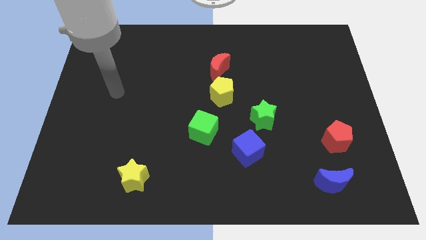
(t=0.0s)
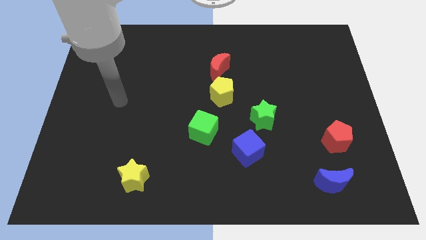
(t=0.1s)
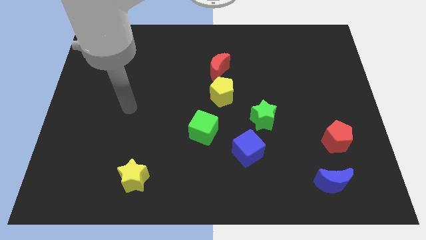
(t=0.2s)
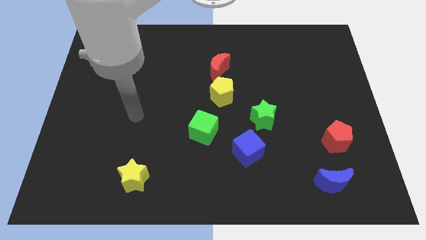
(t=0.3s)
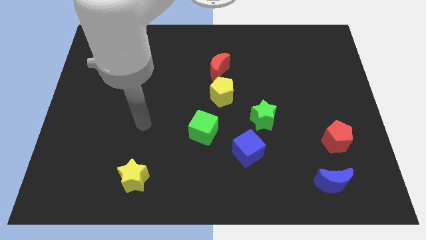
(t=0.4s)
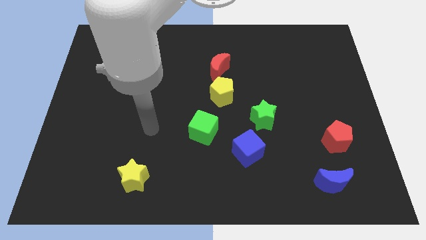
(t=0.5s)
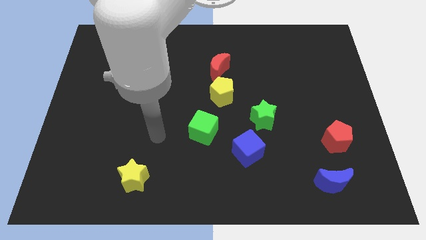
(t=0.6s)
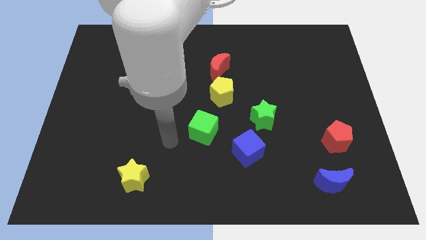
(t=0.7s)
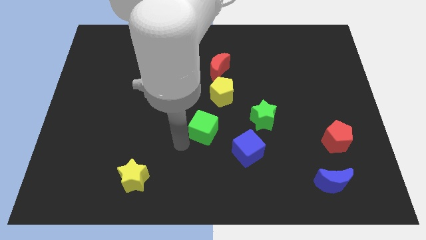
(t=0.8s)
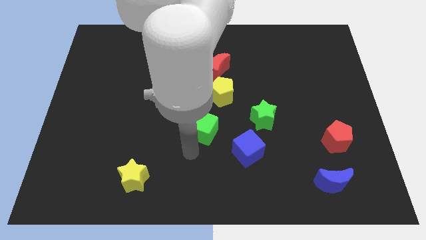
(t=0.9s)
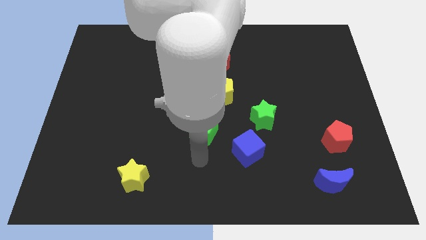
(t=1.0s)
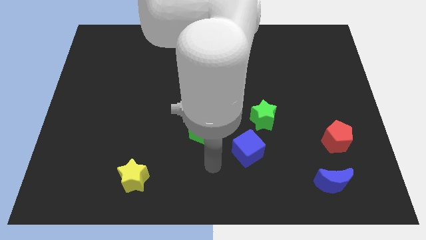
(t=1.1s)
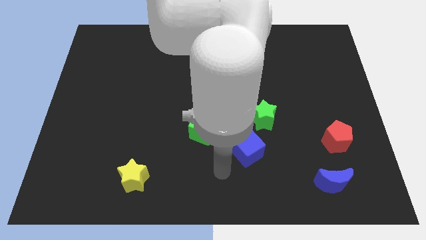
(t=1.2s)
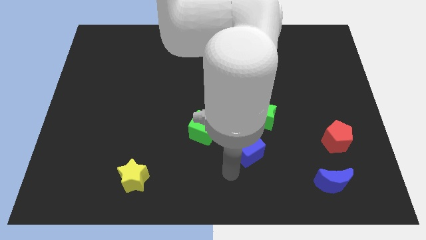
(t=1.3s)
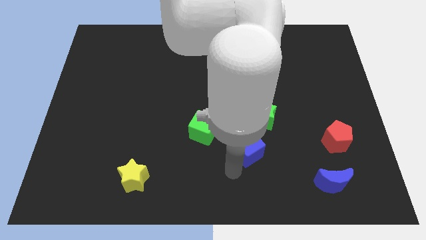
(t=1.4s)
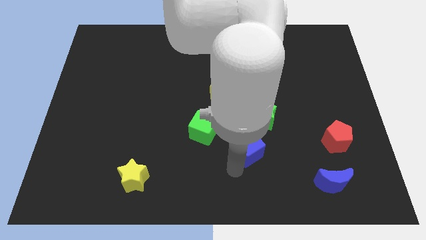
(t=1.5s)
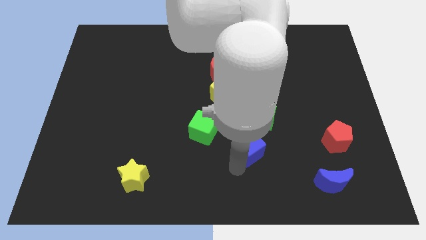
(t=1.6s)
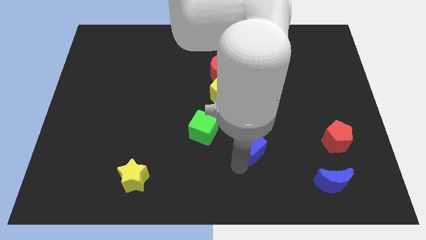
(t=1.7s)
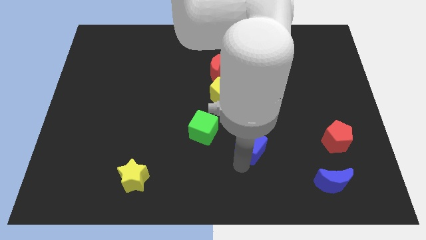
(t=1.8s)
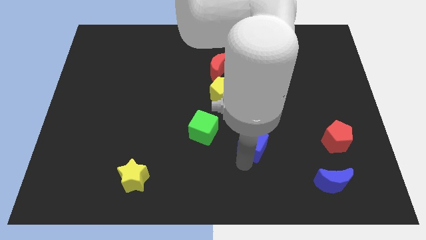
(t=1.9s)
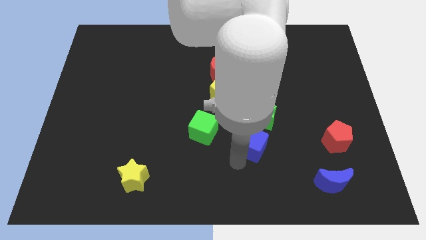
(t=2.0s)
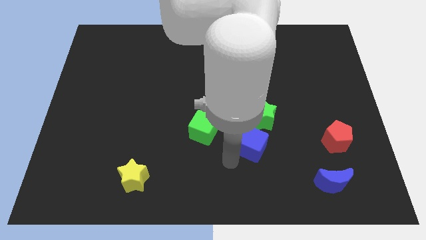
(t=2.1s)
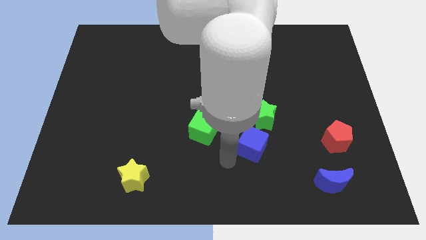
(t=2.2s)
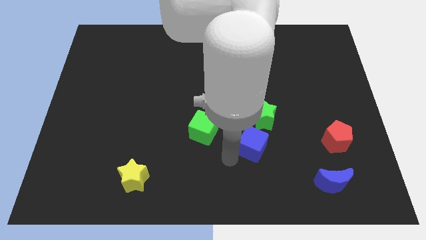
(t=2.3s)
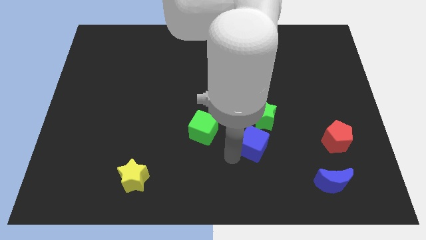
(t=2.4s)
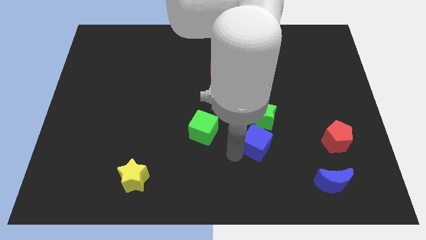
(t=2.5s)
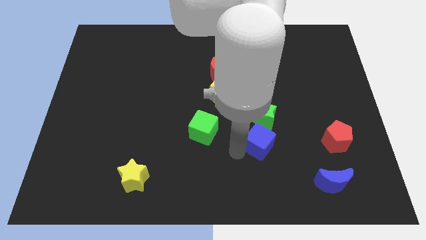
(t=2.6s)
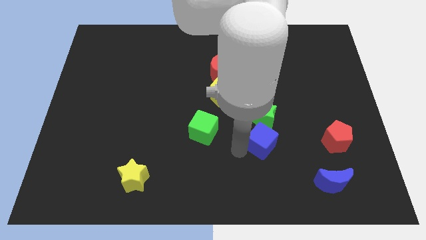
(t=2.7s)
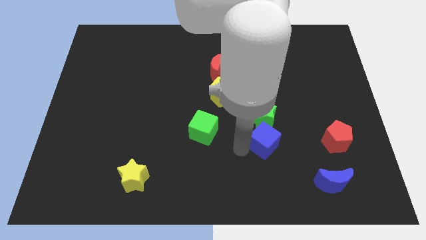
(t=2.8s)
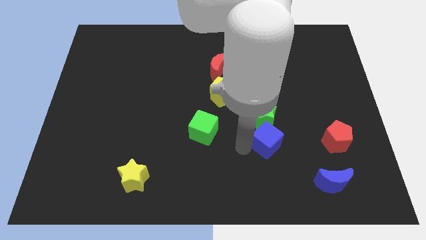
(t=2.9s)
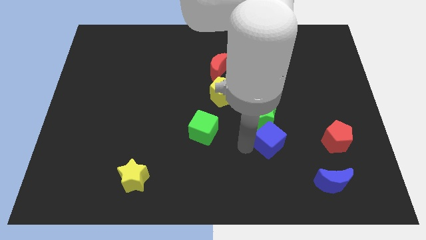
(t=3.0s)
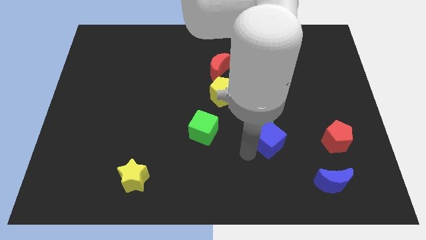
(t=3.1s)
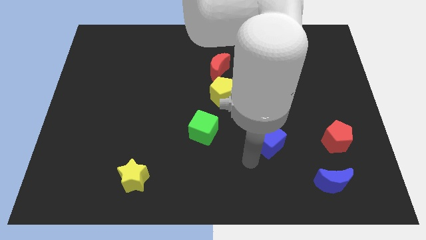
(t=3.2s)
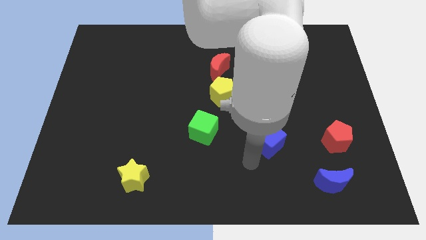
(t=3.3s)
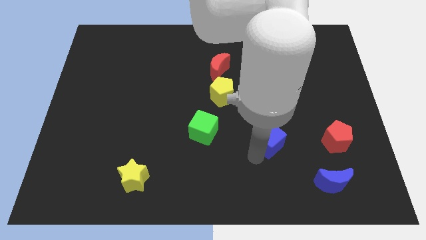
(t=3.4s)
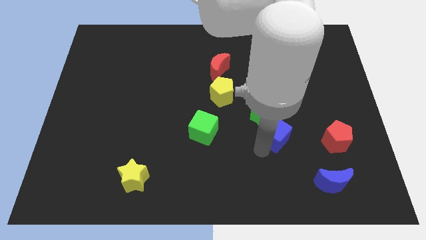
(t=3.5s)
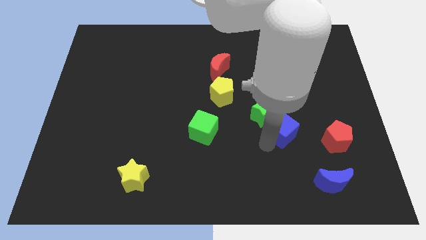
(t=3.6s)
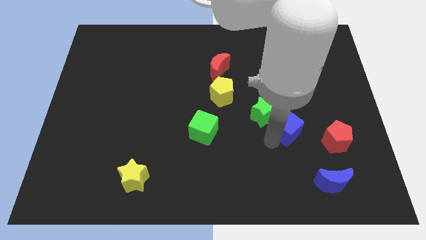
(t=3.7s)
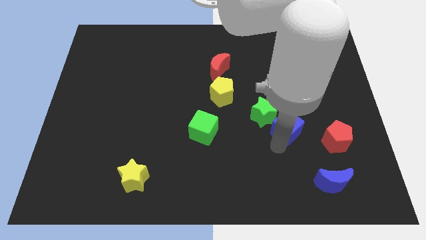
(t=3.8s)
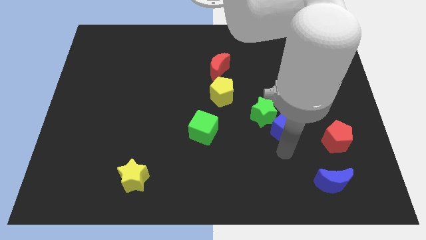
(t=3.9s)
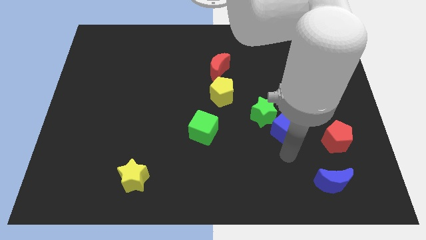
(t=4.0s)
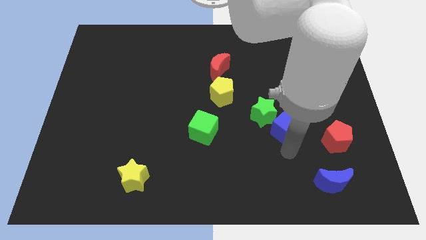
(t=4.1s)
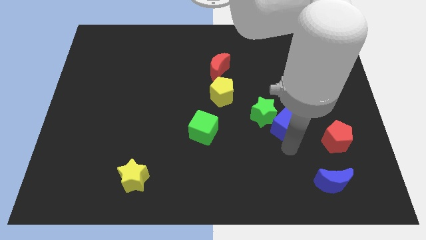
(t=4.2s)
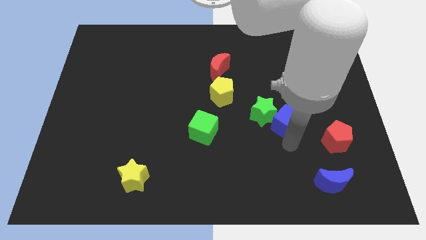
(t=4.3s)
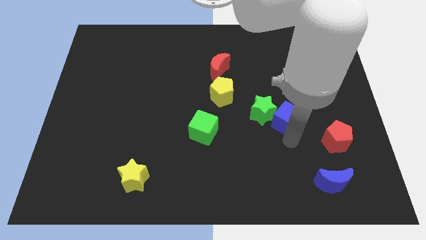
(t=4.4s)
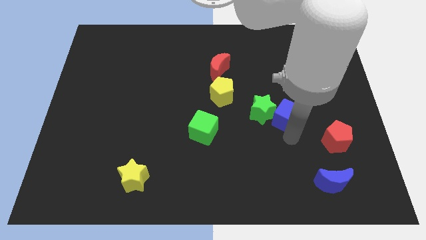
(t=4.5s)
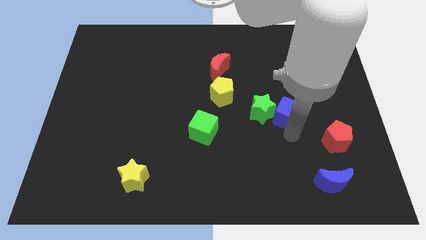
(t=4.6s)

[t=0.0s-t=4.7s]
put the blue cube to the top right side of the green star

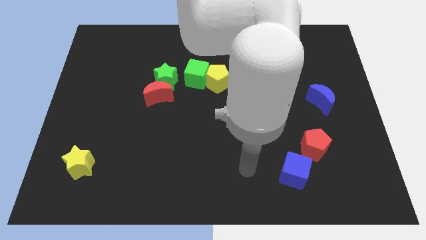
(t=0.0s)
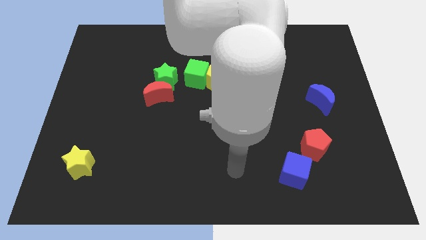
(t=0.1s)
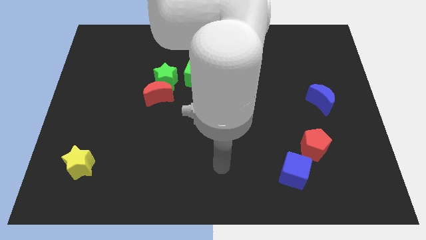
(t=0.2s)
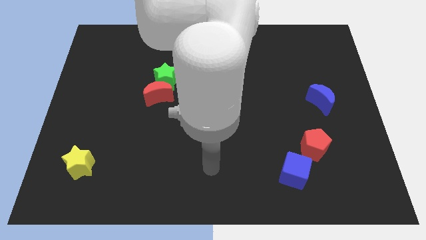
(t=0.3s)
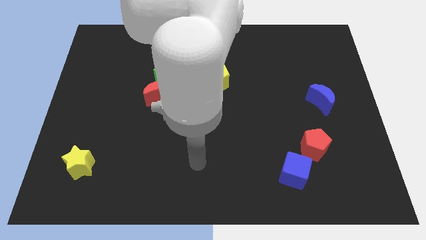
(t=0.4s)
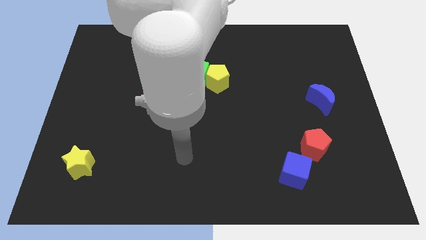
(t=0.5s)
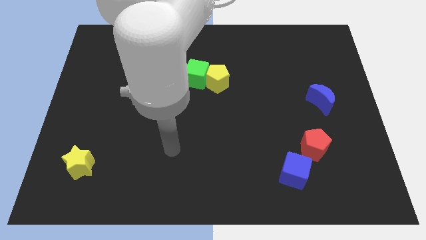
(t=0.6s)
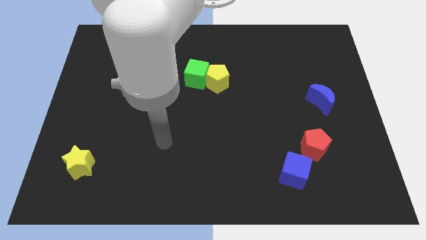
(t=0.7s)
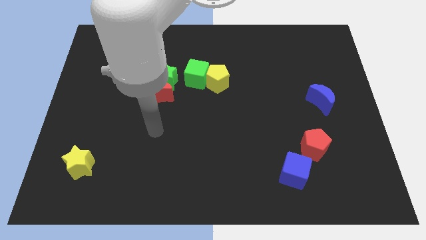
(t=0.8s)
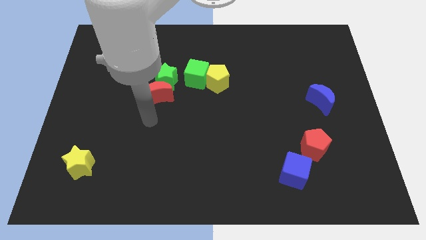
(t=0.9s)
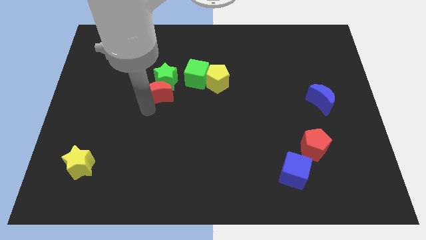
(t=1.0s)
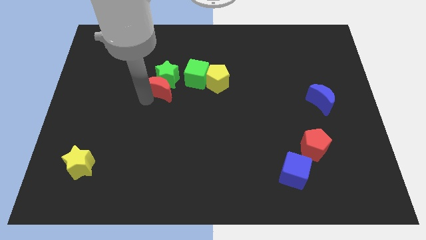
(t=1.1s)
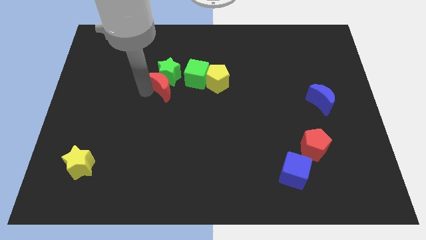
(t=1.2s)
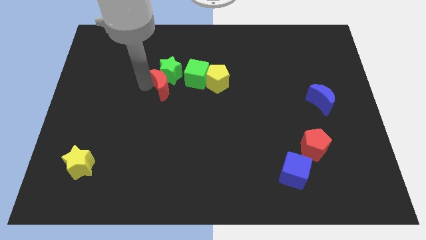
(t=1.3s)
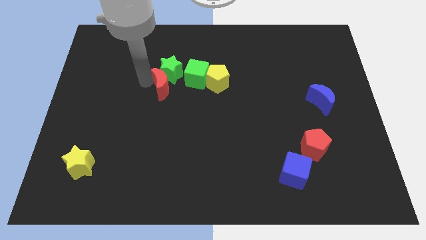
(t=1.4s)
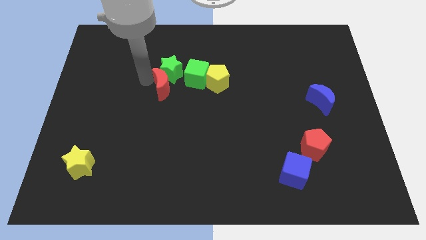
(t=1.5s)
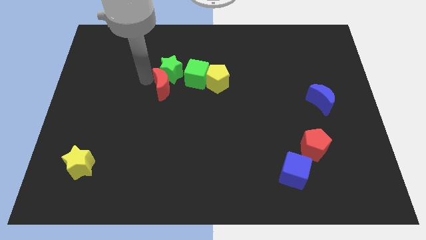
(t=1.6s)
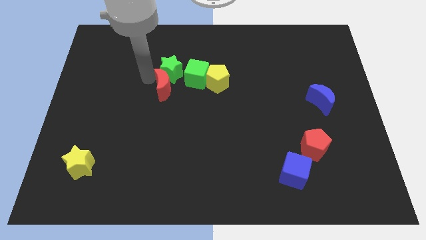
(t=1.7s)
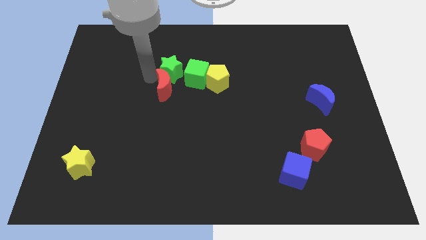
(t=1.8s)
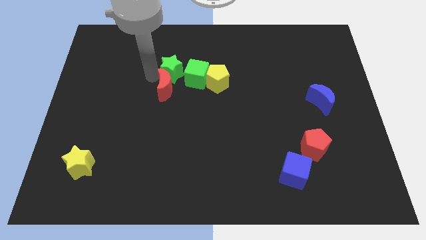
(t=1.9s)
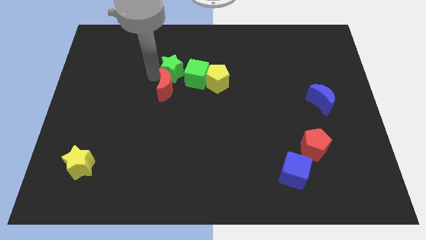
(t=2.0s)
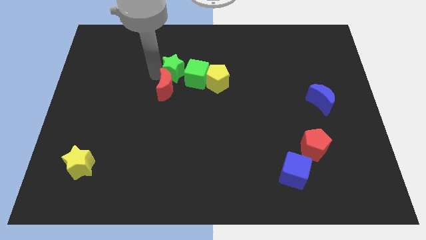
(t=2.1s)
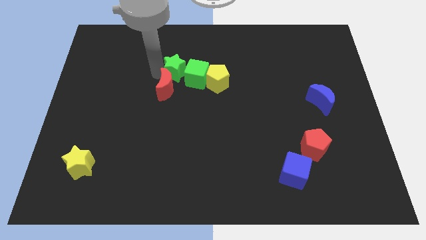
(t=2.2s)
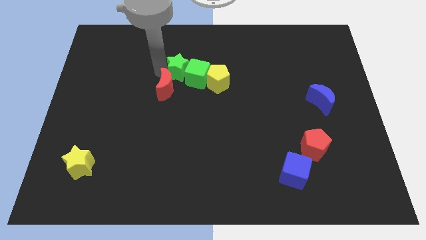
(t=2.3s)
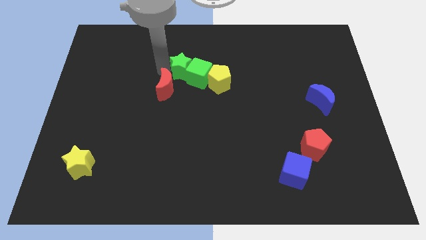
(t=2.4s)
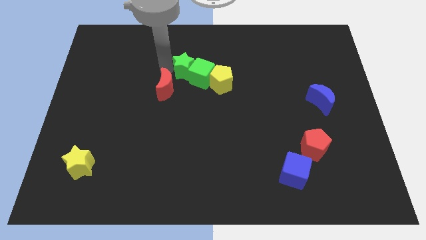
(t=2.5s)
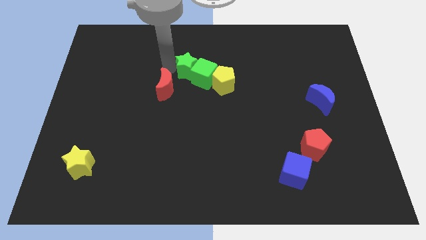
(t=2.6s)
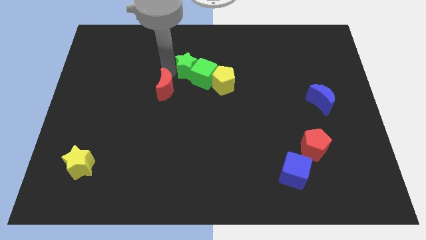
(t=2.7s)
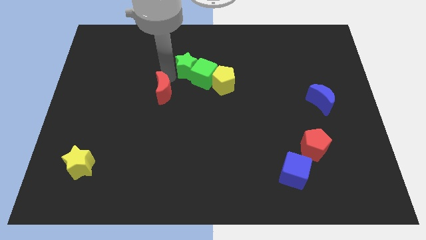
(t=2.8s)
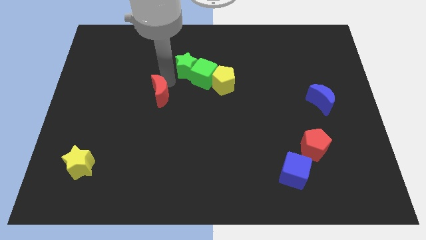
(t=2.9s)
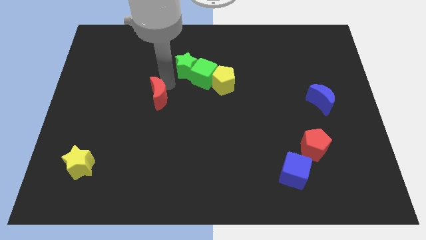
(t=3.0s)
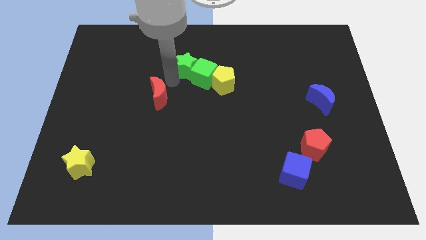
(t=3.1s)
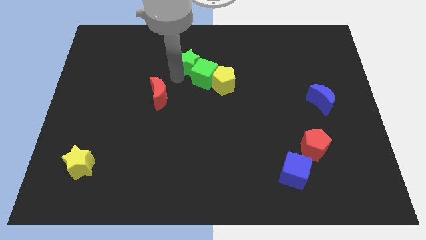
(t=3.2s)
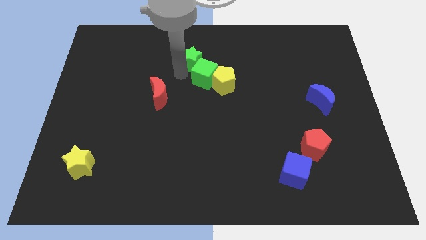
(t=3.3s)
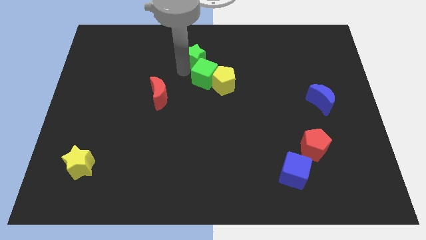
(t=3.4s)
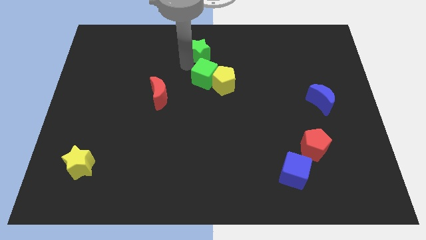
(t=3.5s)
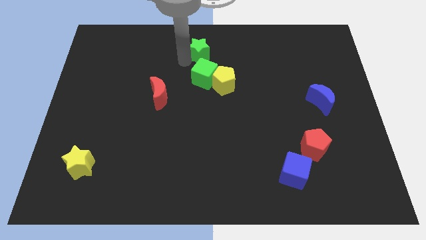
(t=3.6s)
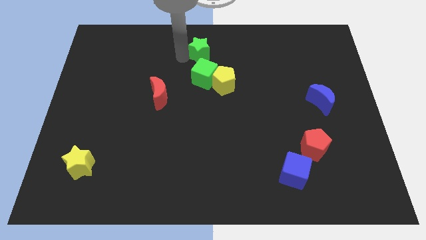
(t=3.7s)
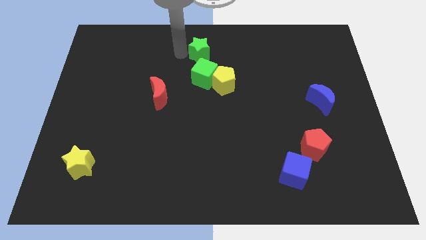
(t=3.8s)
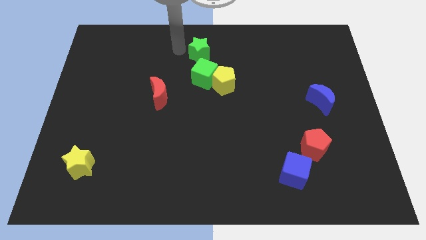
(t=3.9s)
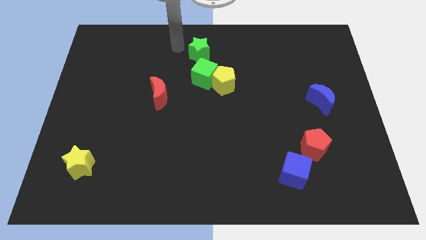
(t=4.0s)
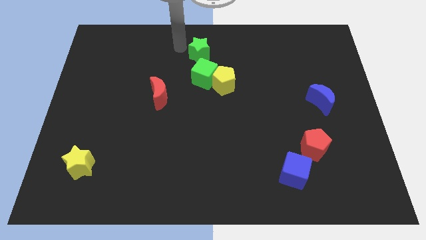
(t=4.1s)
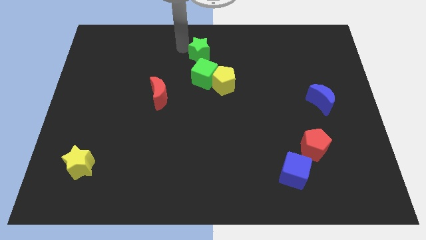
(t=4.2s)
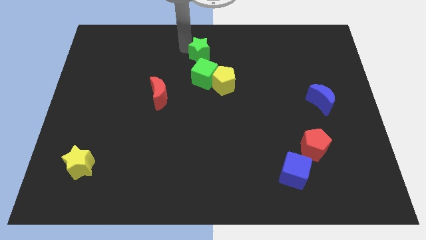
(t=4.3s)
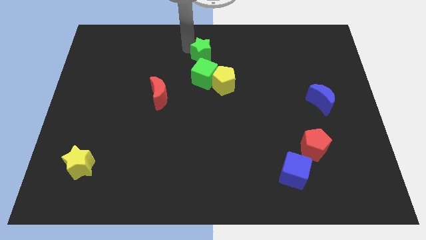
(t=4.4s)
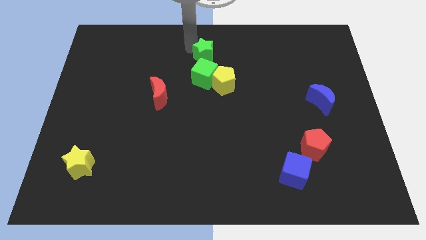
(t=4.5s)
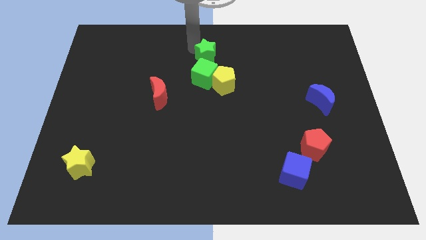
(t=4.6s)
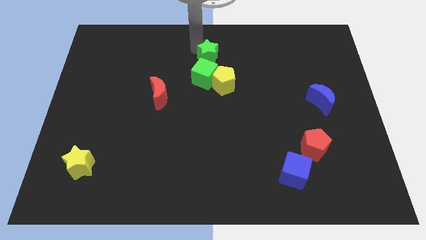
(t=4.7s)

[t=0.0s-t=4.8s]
push the green star to the top right of the green cube
